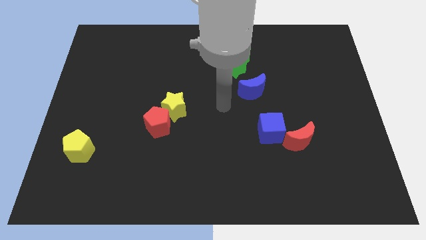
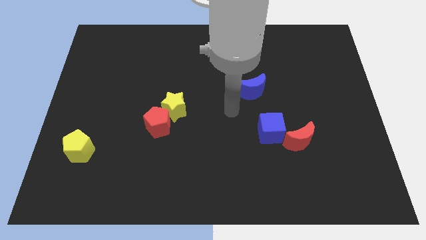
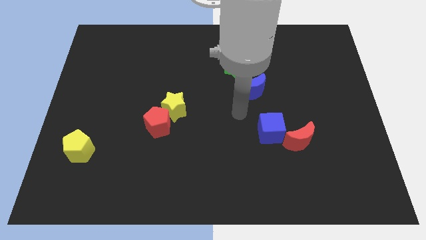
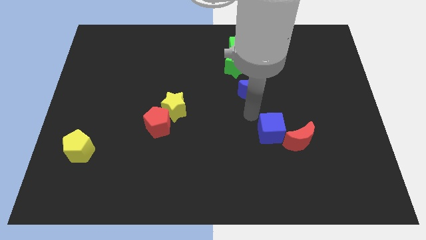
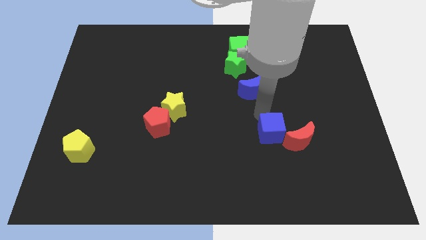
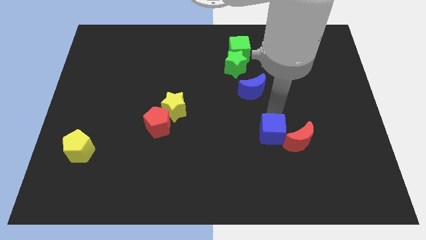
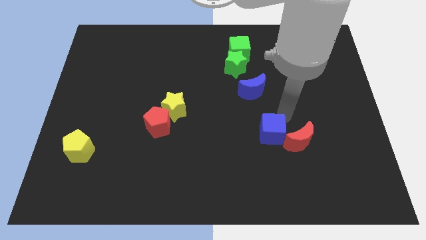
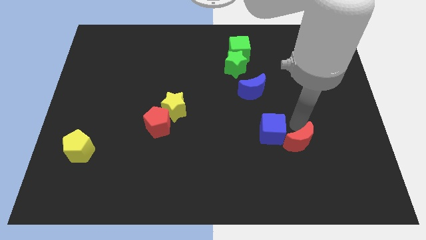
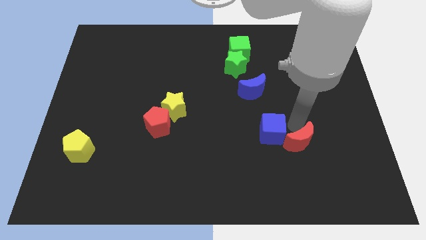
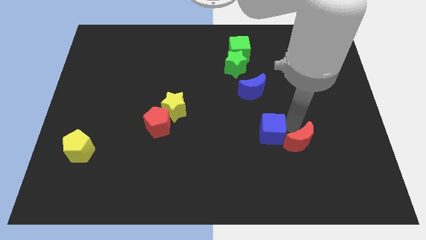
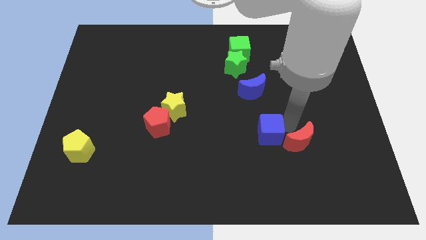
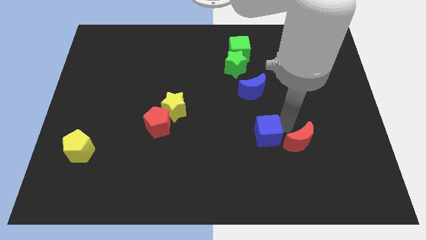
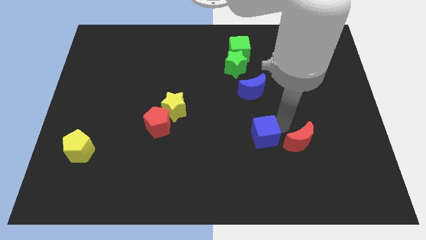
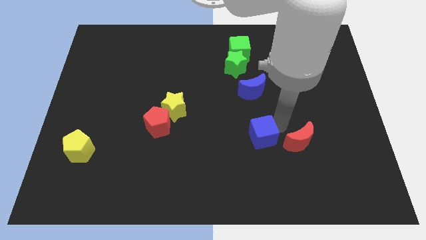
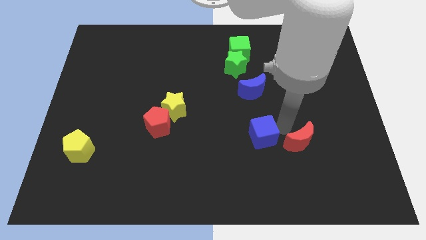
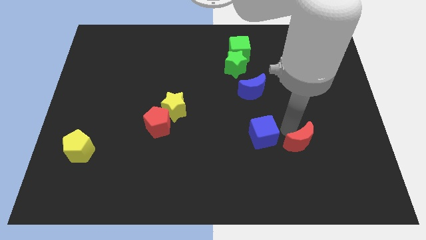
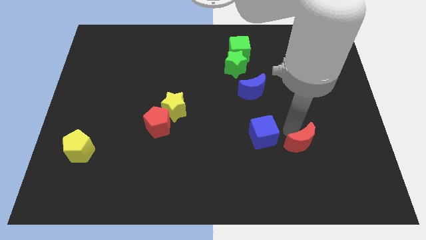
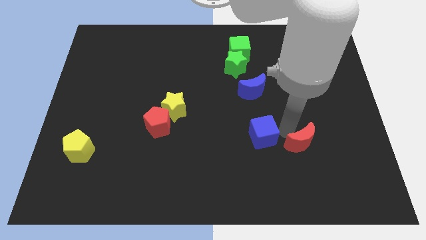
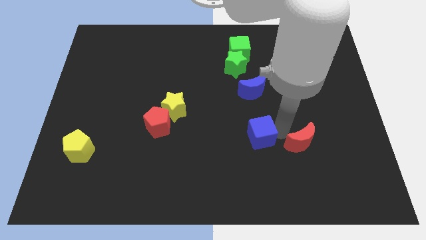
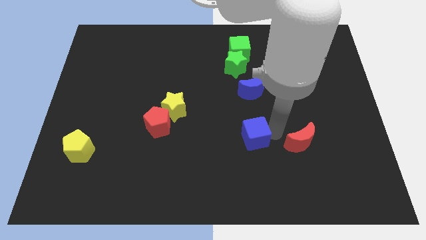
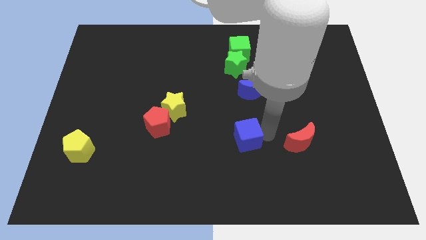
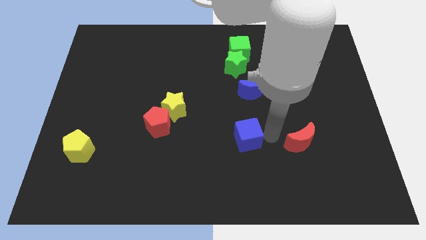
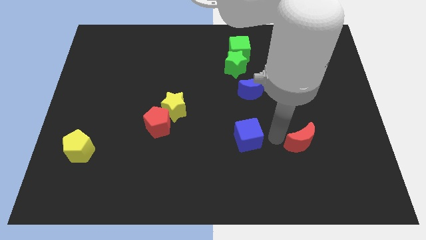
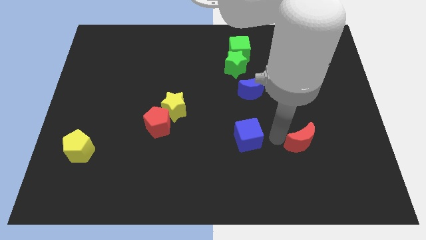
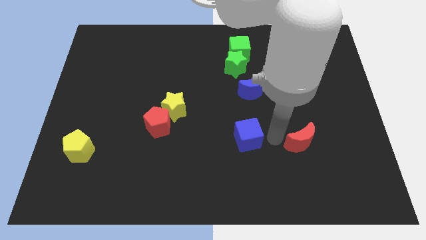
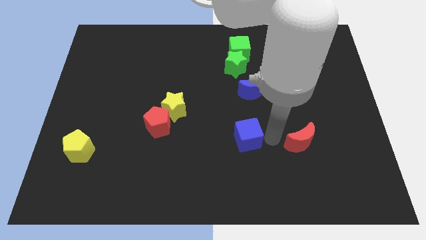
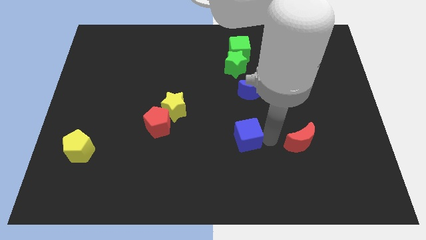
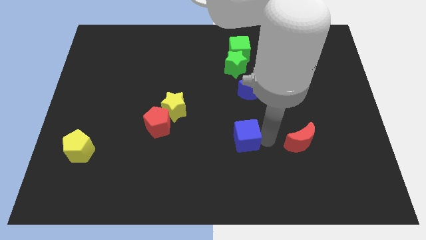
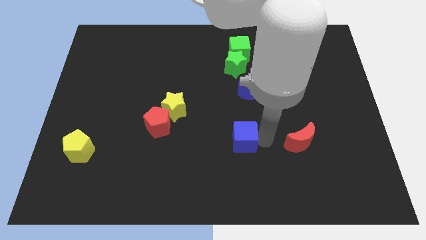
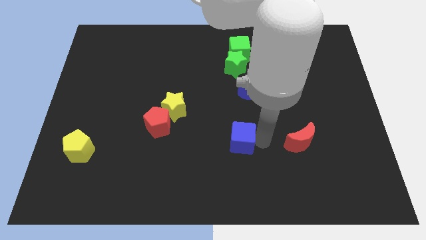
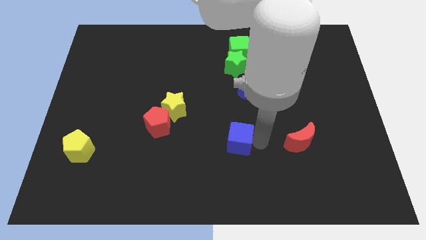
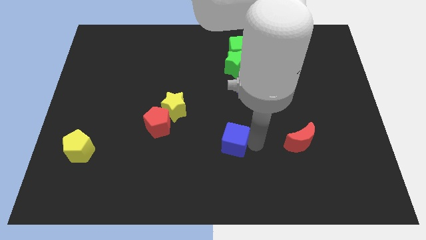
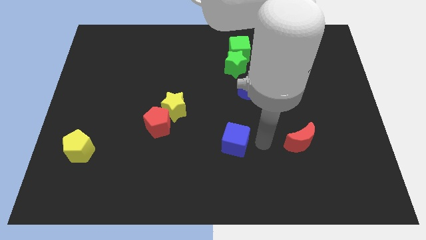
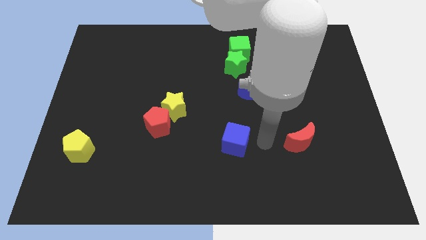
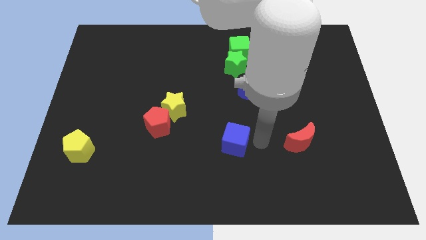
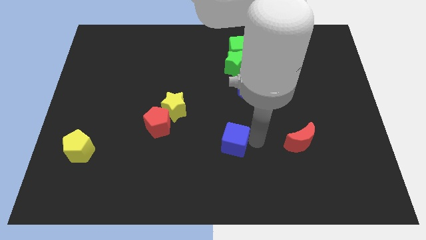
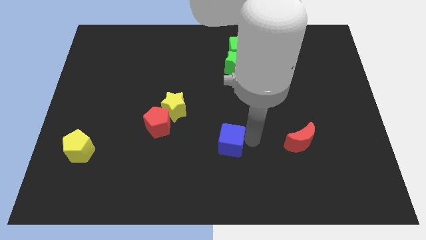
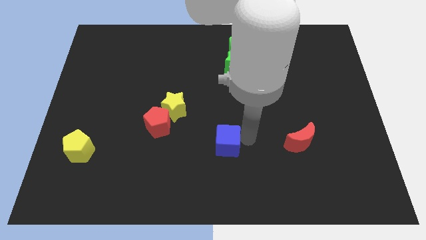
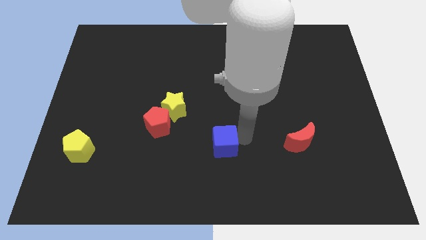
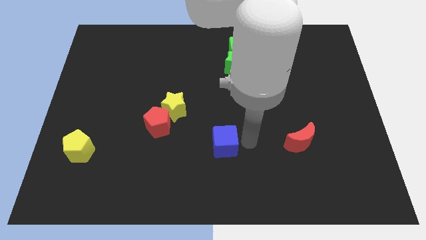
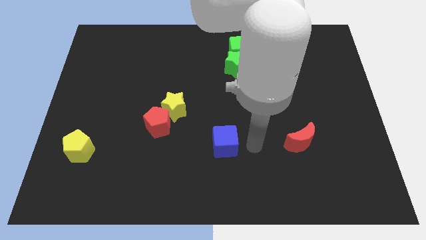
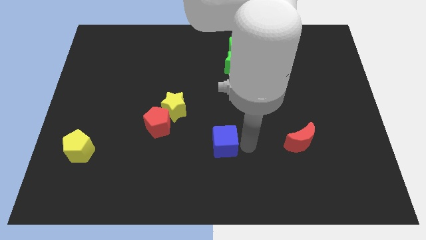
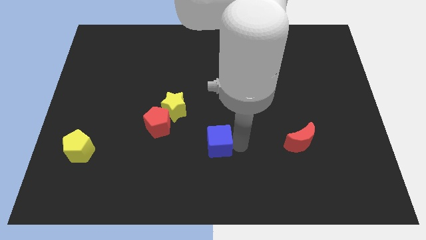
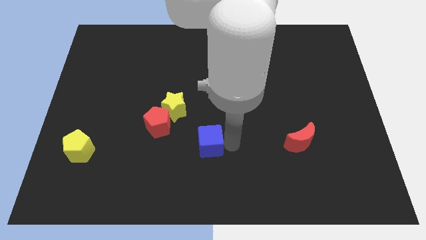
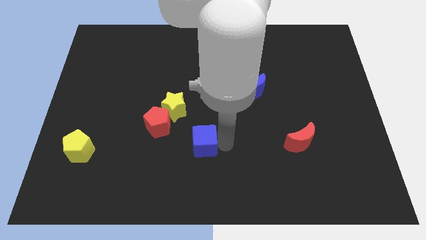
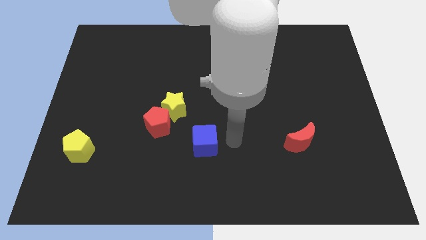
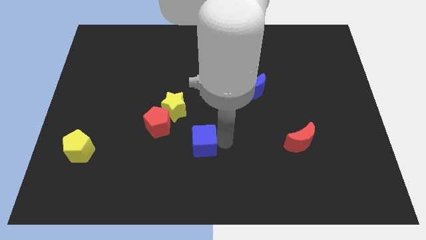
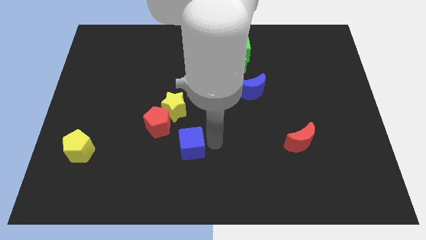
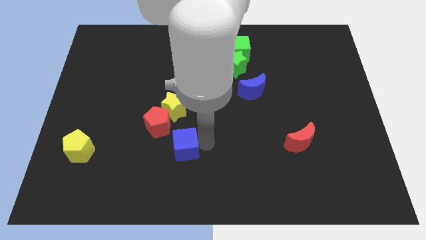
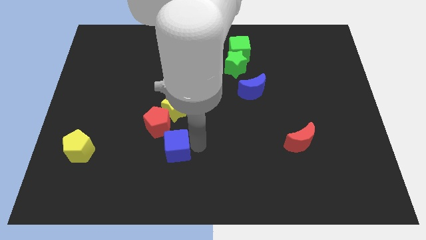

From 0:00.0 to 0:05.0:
move the blue cube left

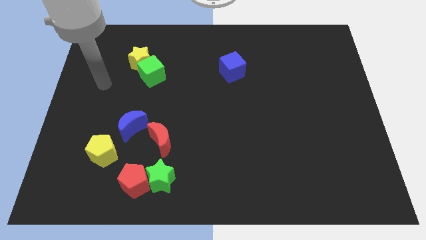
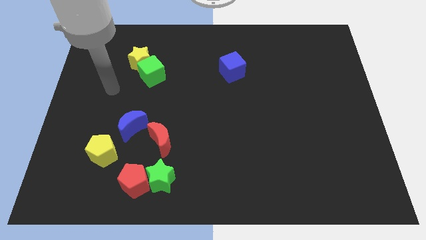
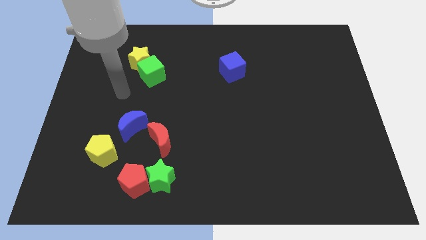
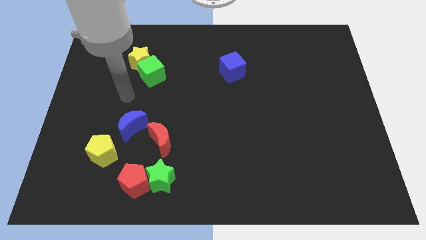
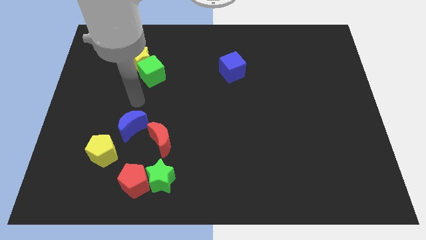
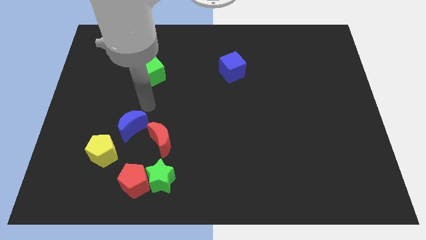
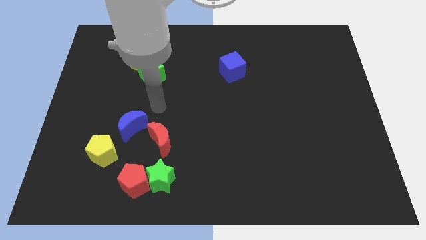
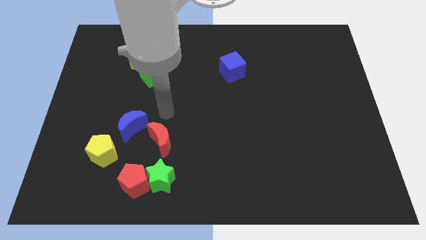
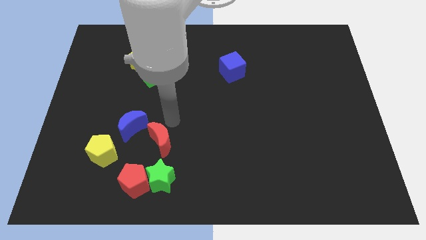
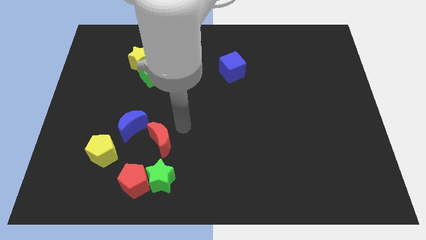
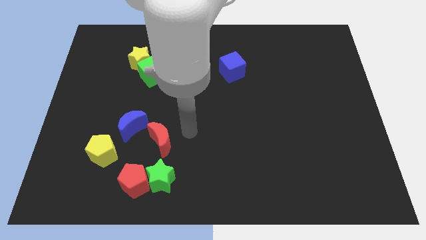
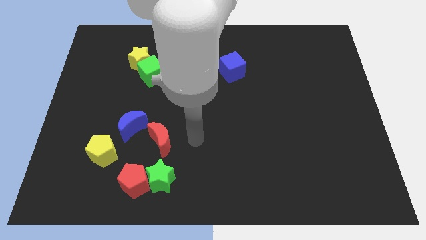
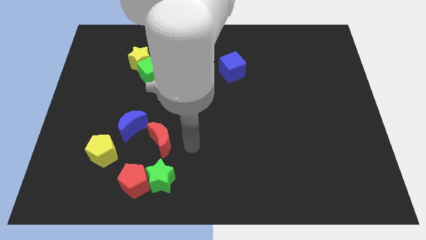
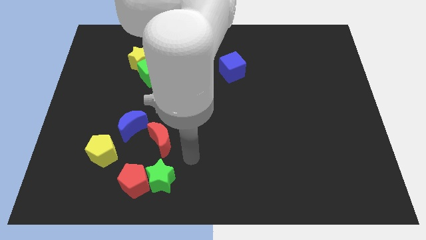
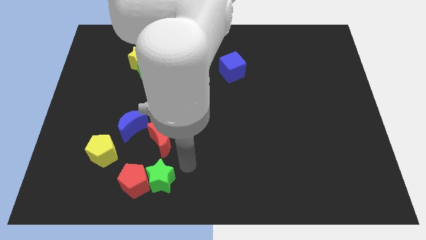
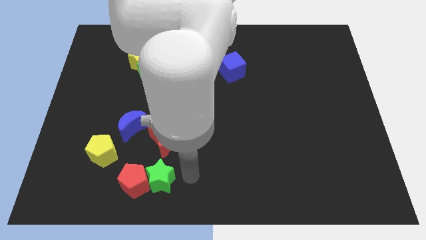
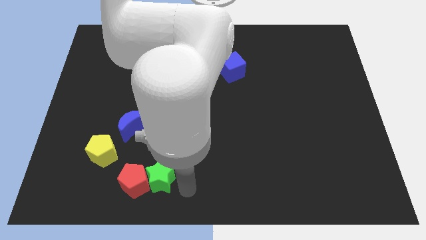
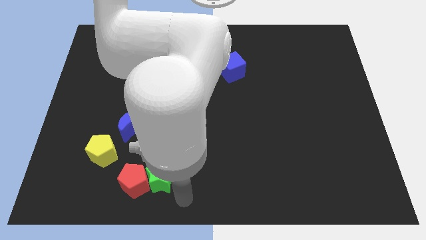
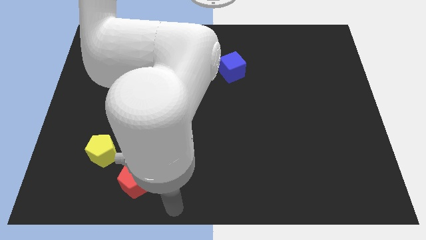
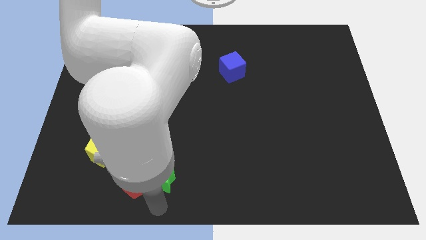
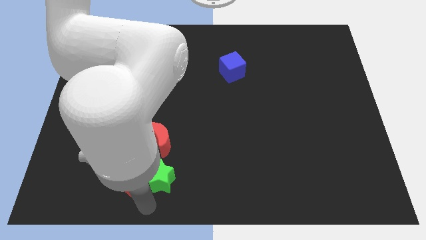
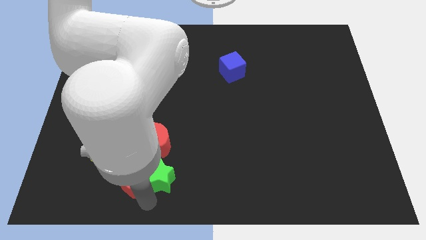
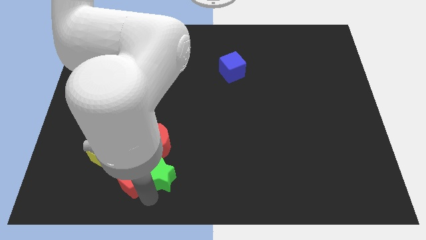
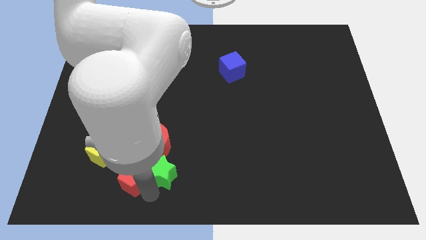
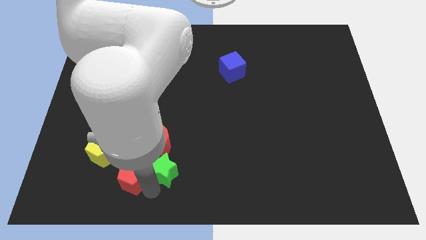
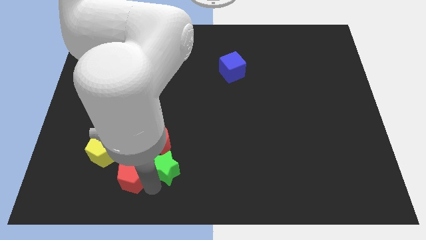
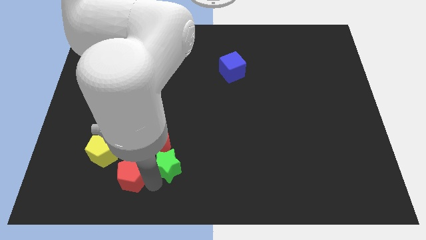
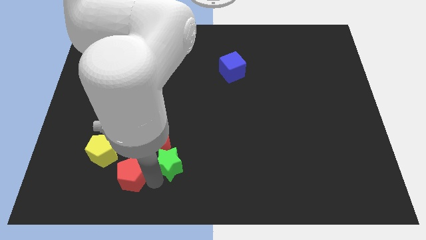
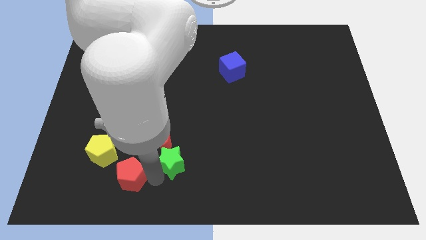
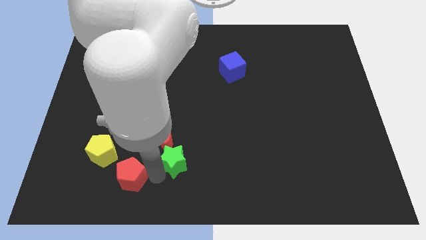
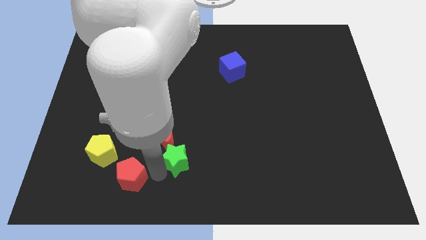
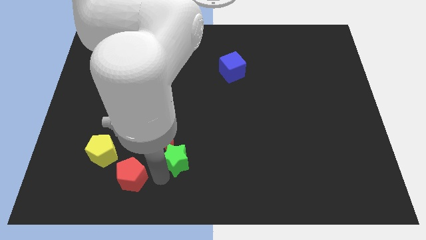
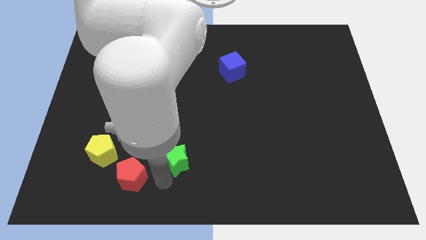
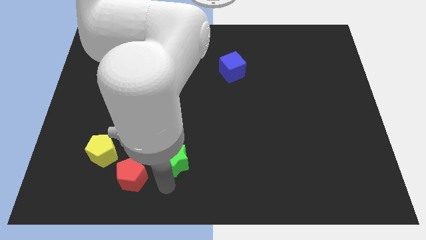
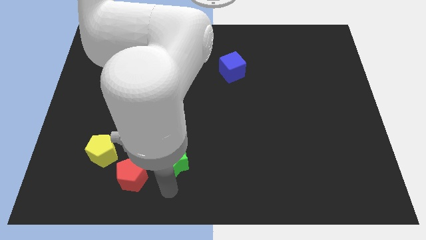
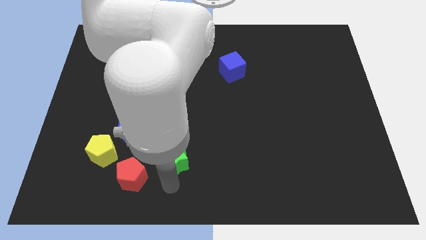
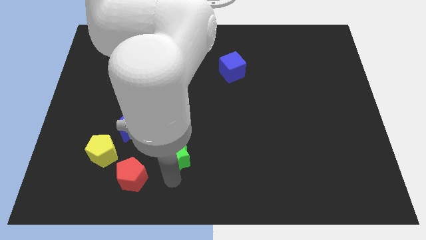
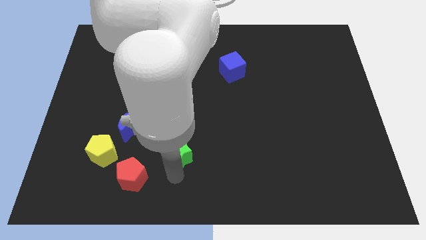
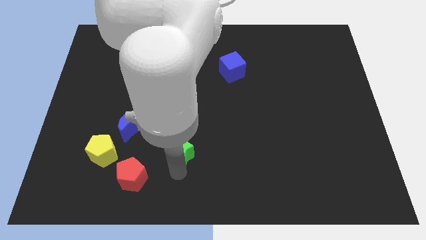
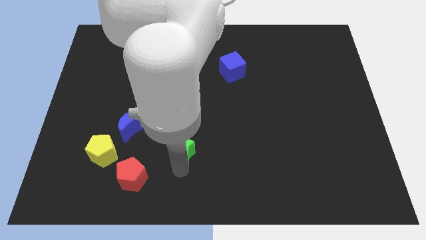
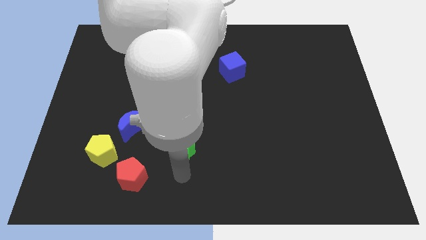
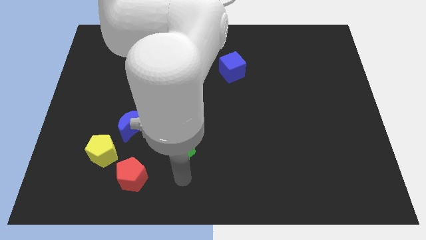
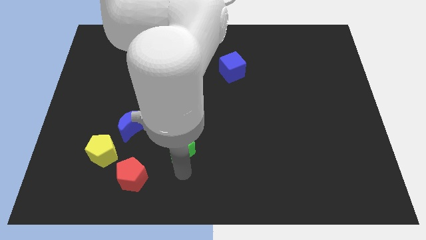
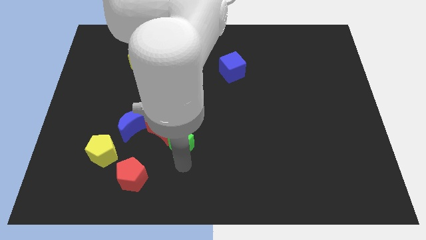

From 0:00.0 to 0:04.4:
slide the green star up somewhat
